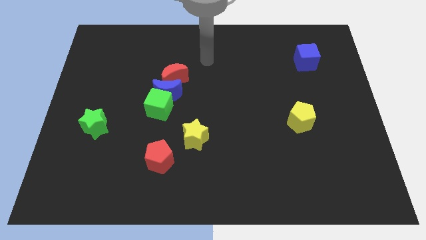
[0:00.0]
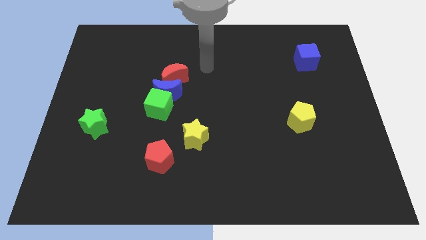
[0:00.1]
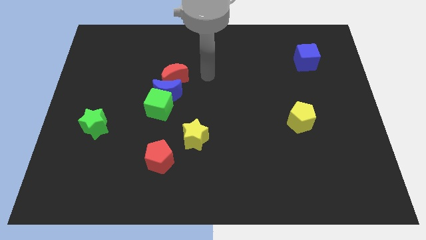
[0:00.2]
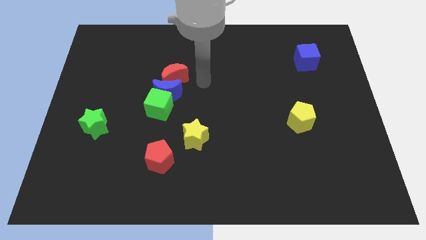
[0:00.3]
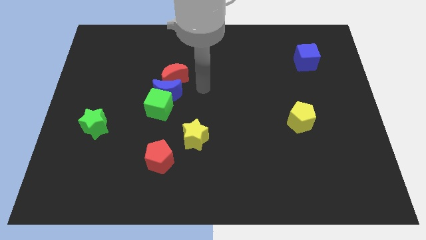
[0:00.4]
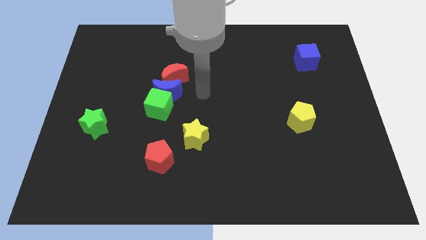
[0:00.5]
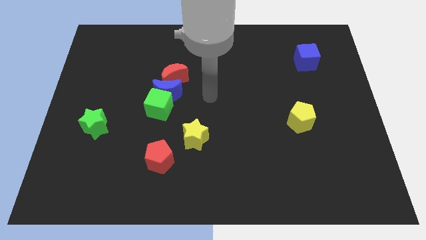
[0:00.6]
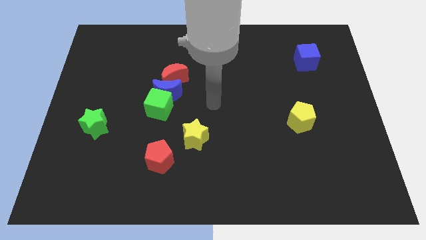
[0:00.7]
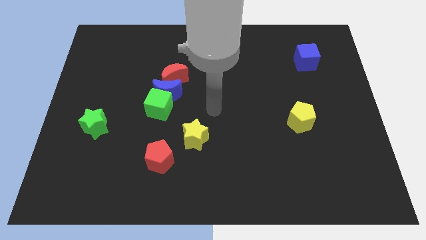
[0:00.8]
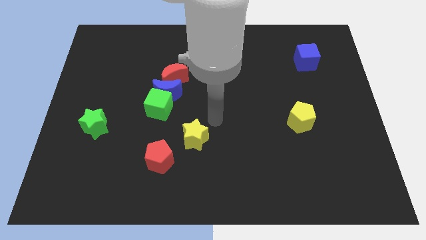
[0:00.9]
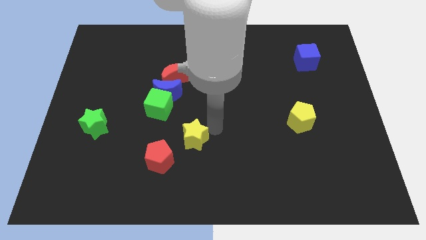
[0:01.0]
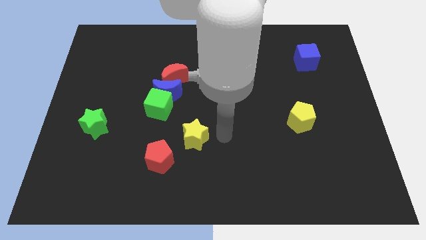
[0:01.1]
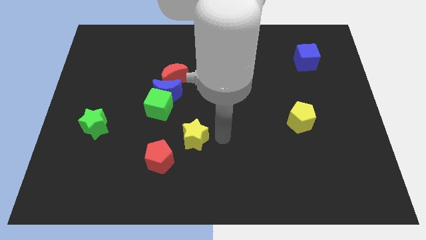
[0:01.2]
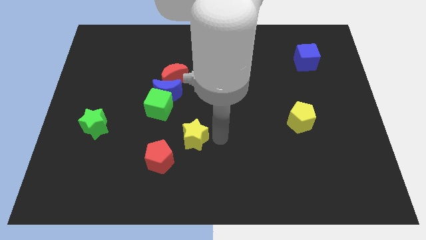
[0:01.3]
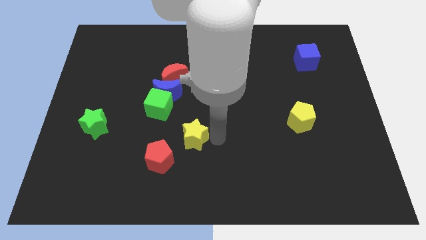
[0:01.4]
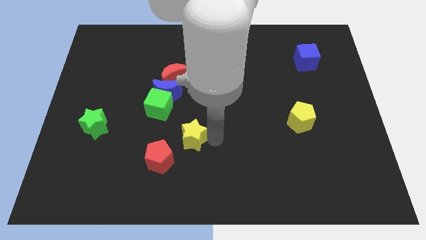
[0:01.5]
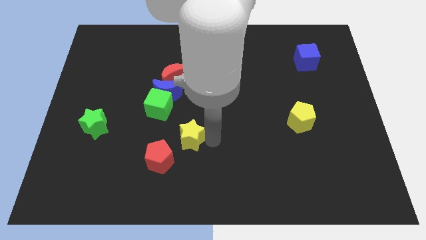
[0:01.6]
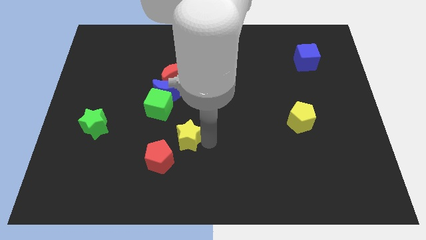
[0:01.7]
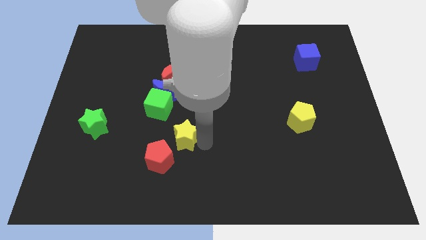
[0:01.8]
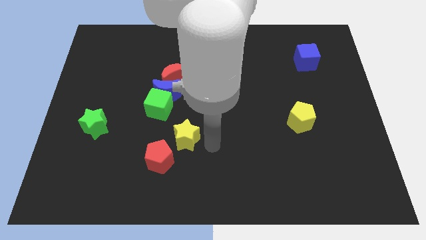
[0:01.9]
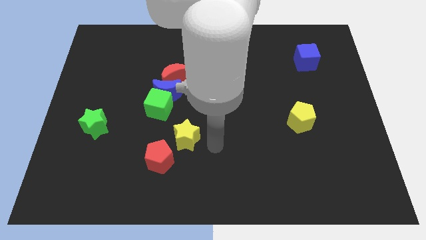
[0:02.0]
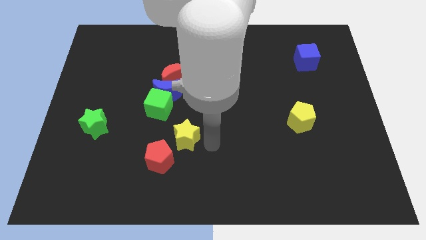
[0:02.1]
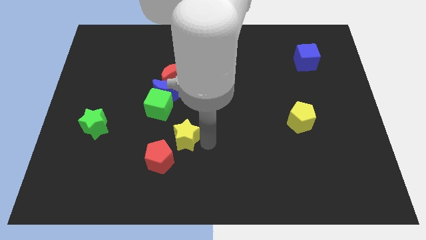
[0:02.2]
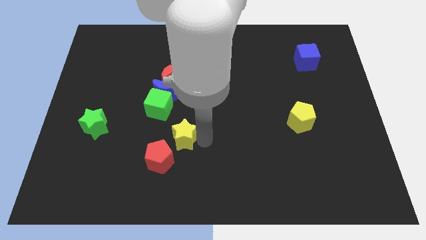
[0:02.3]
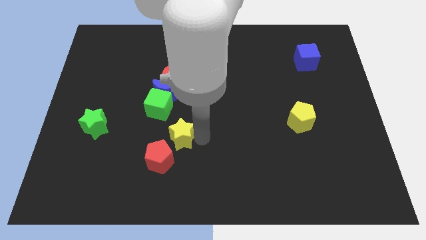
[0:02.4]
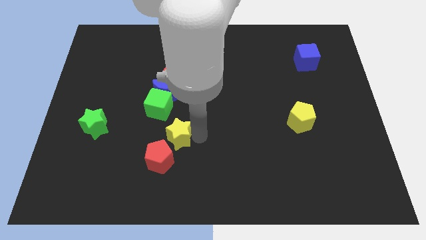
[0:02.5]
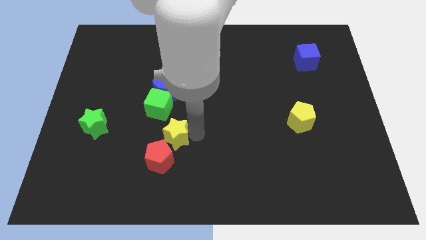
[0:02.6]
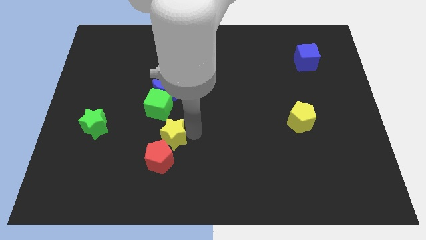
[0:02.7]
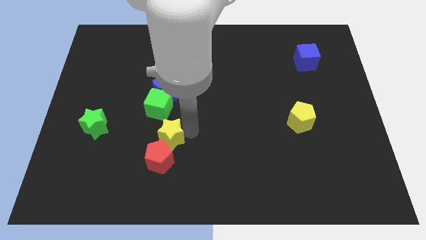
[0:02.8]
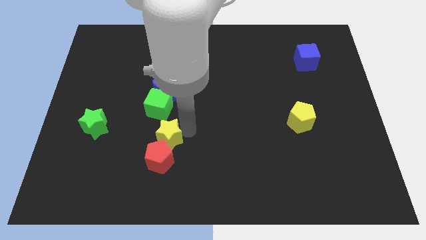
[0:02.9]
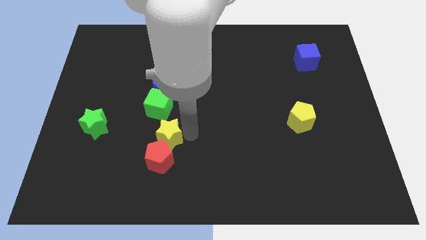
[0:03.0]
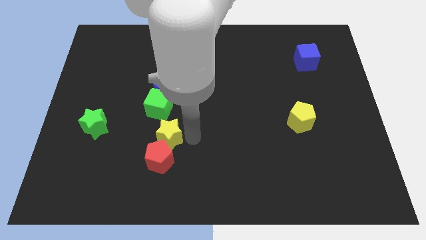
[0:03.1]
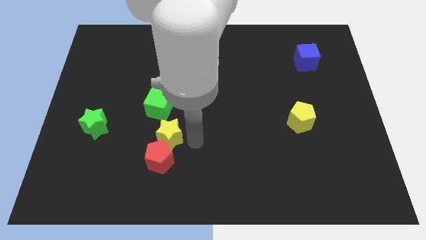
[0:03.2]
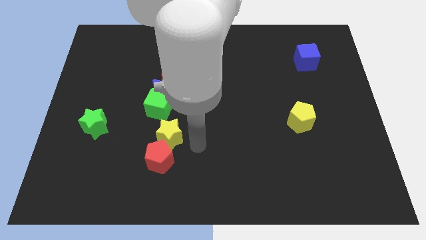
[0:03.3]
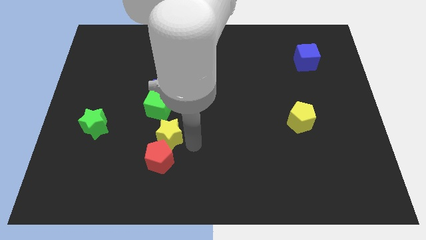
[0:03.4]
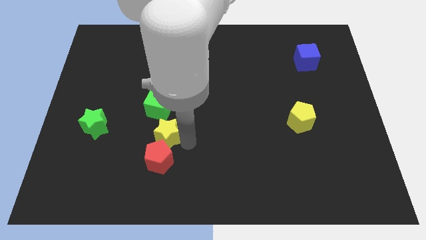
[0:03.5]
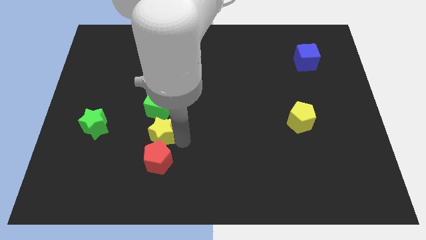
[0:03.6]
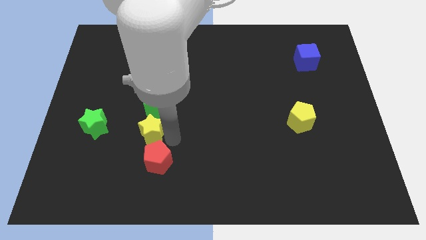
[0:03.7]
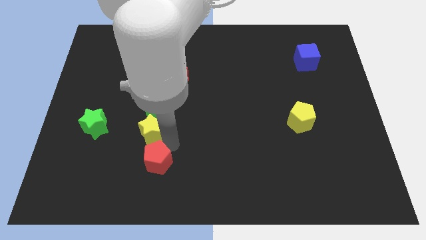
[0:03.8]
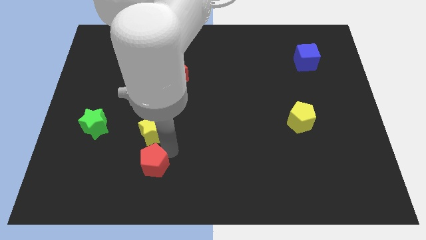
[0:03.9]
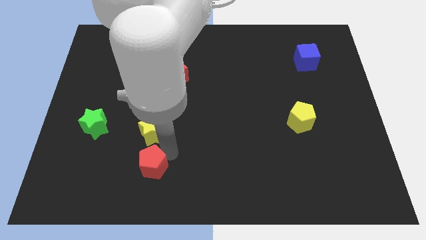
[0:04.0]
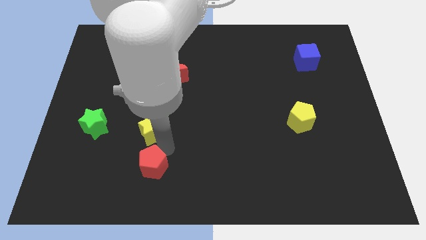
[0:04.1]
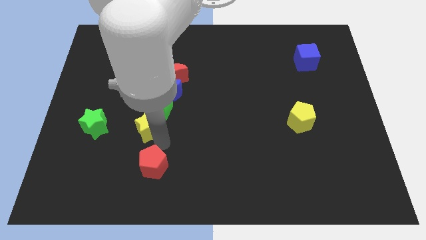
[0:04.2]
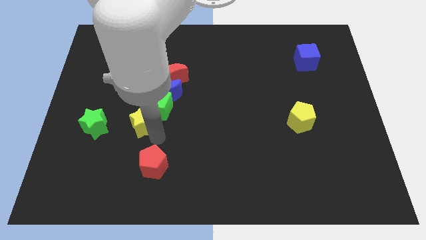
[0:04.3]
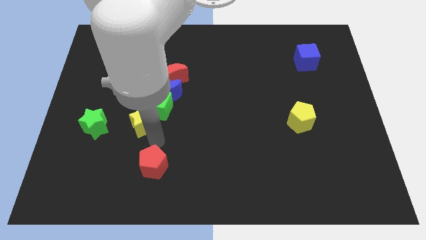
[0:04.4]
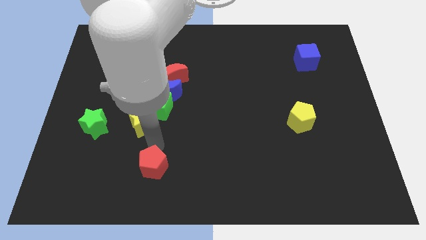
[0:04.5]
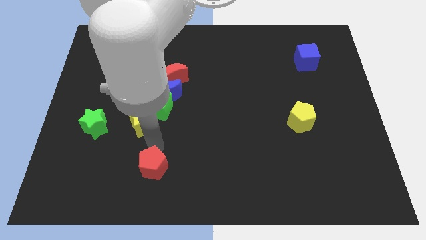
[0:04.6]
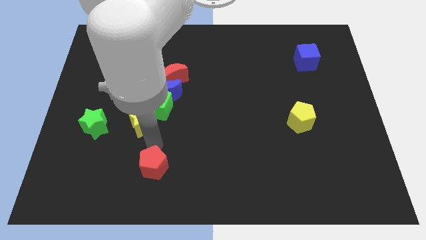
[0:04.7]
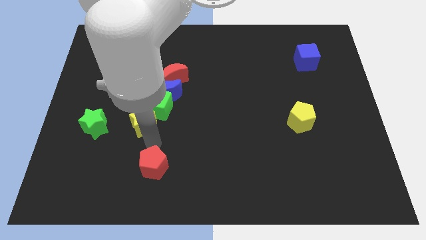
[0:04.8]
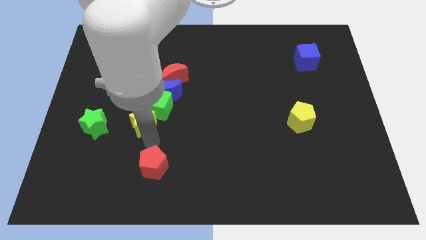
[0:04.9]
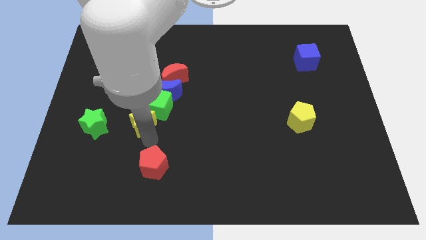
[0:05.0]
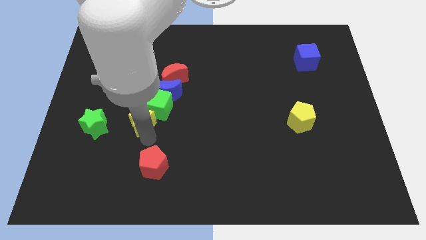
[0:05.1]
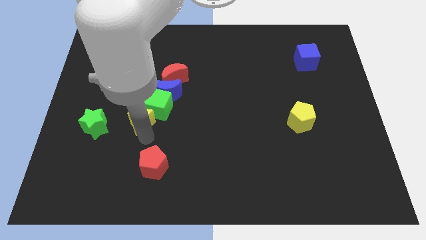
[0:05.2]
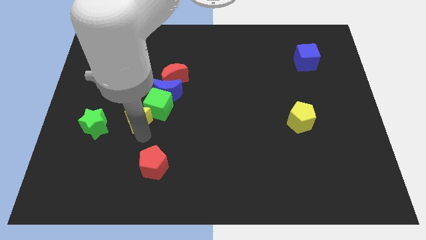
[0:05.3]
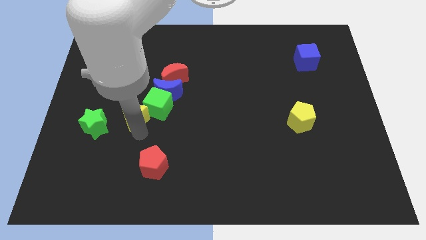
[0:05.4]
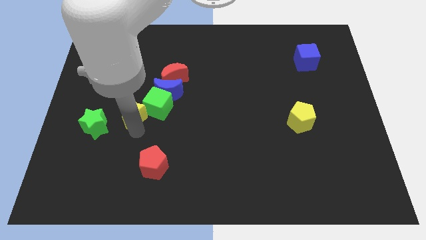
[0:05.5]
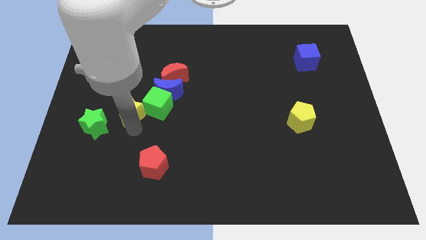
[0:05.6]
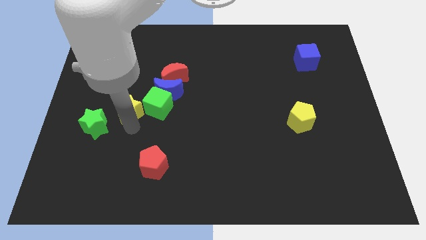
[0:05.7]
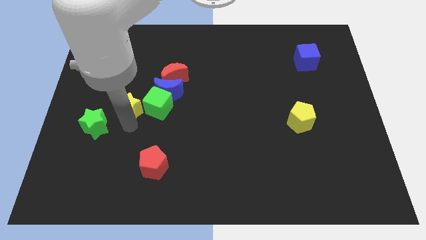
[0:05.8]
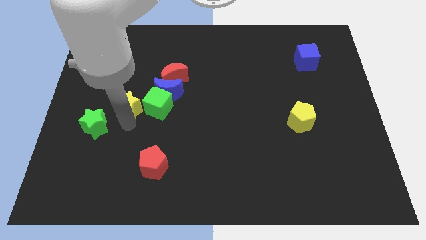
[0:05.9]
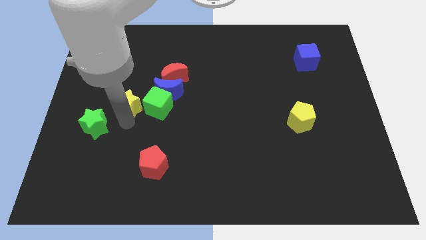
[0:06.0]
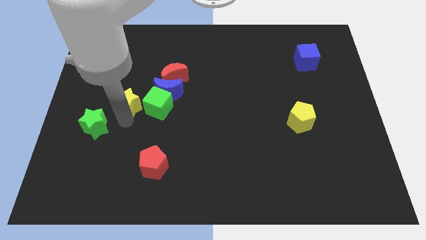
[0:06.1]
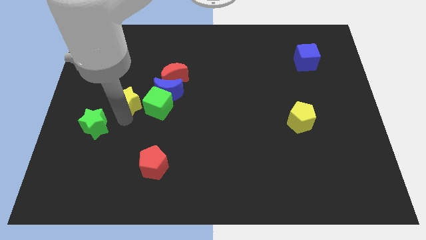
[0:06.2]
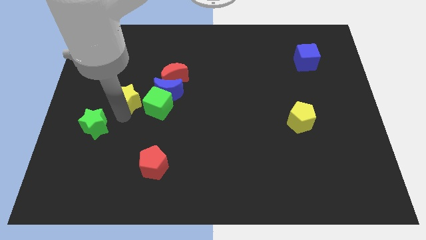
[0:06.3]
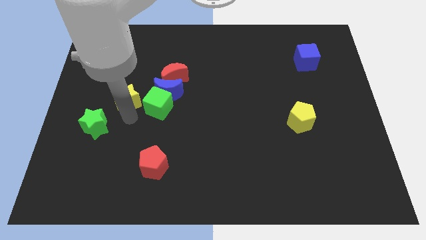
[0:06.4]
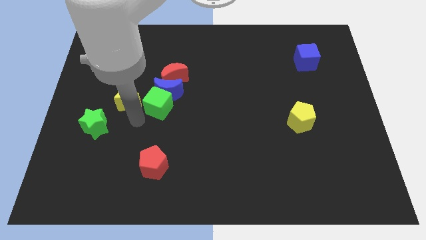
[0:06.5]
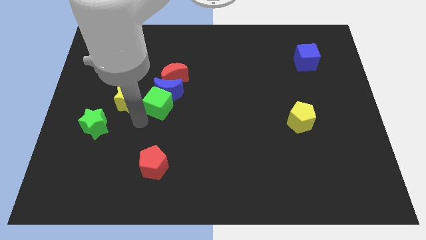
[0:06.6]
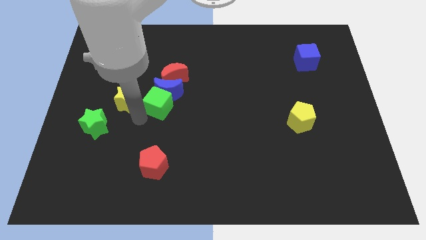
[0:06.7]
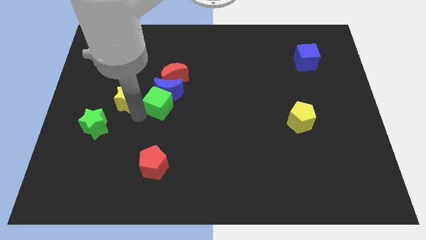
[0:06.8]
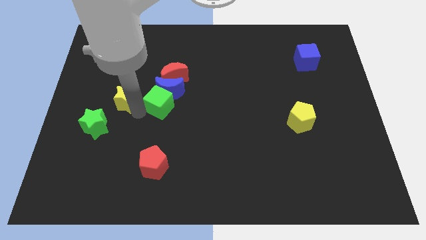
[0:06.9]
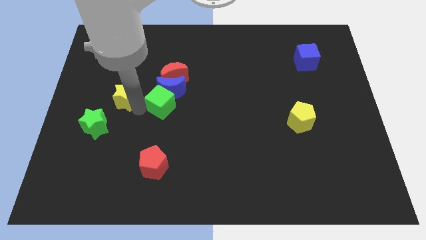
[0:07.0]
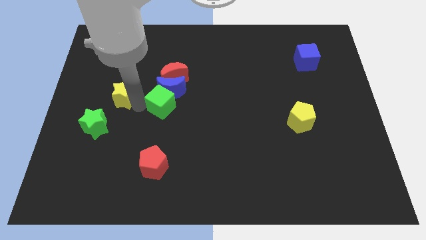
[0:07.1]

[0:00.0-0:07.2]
push the yellow star up and then left

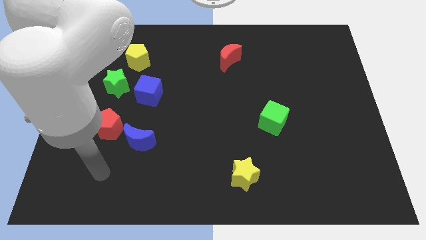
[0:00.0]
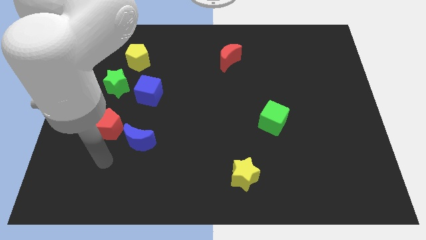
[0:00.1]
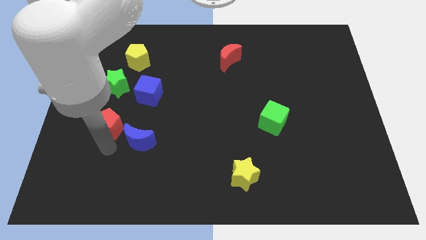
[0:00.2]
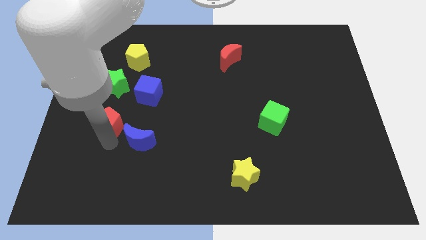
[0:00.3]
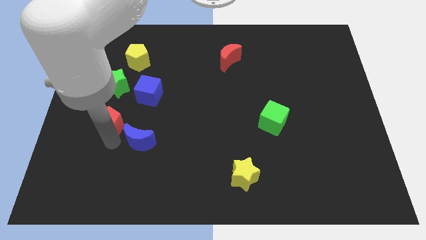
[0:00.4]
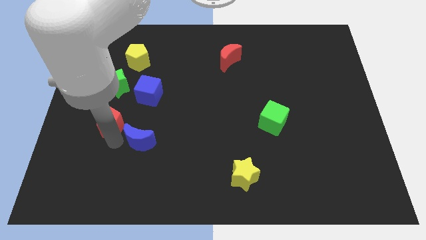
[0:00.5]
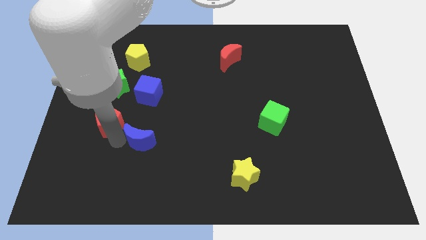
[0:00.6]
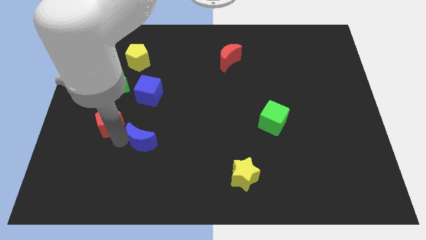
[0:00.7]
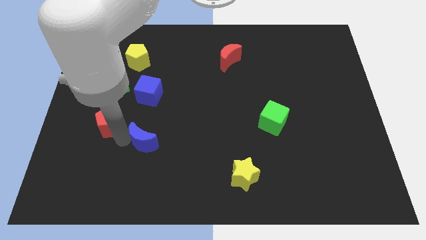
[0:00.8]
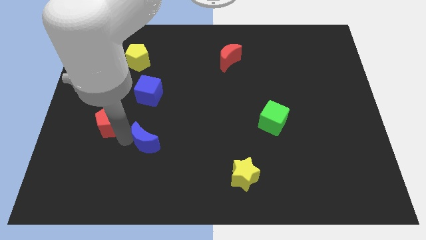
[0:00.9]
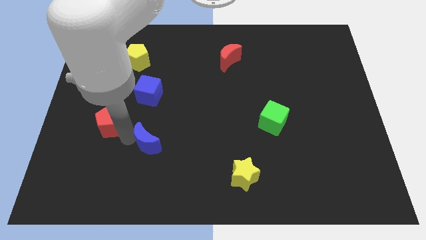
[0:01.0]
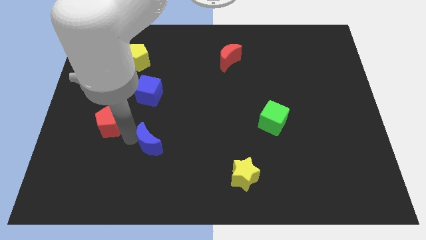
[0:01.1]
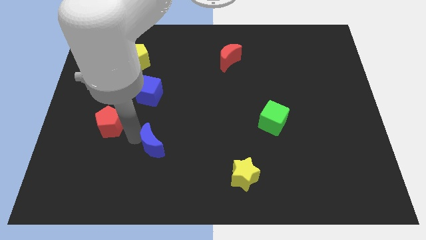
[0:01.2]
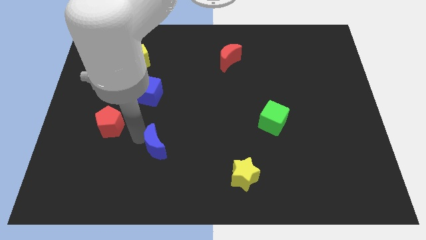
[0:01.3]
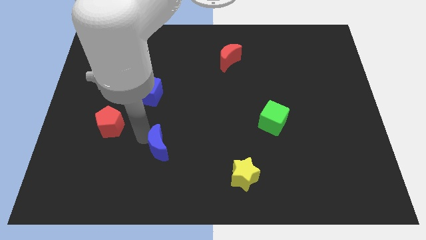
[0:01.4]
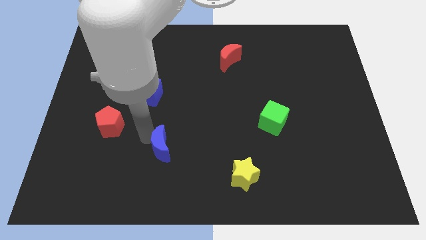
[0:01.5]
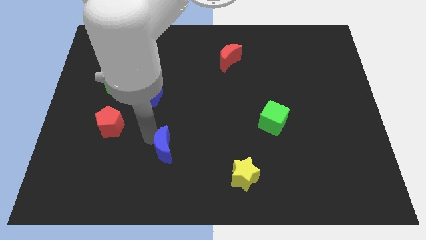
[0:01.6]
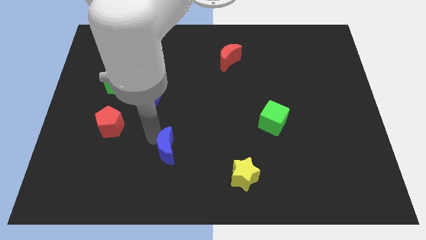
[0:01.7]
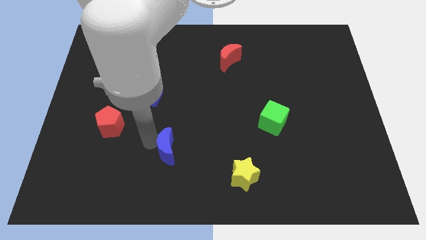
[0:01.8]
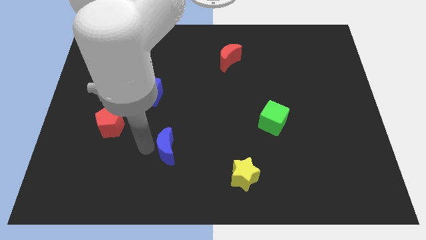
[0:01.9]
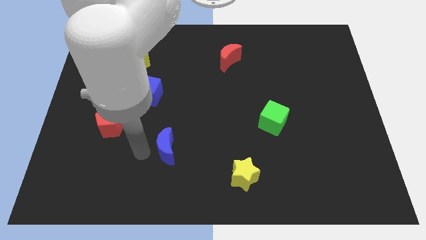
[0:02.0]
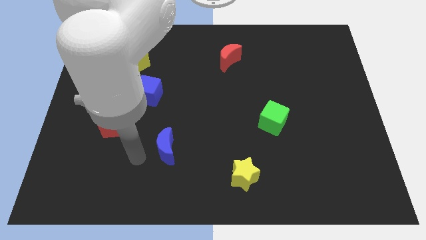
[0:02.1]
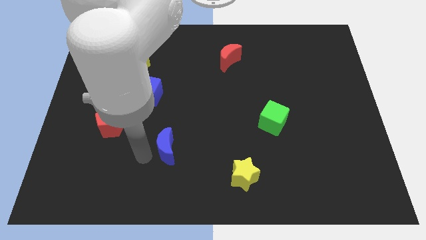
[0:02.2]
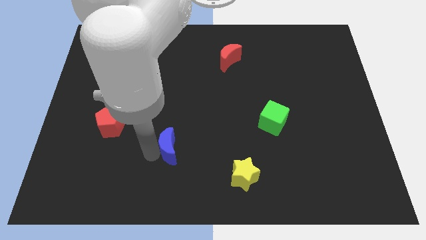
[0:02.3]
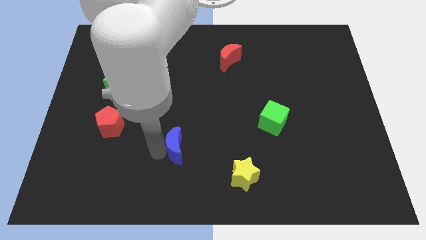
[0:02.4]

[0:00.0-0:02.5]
slightly slide the blue moon right
